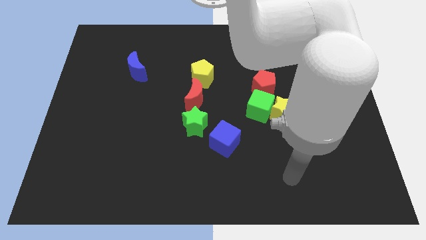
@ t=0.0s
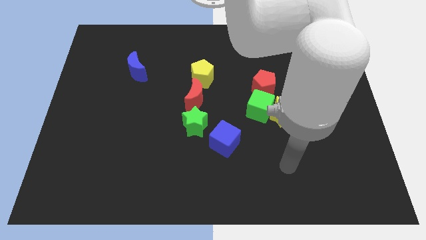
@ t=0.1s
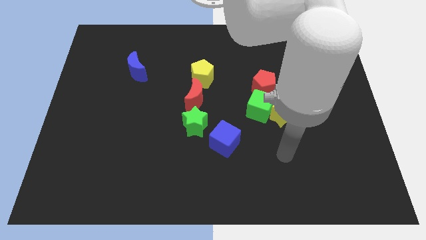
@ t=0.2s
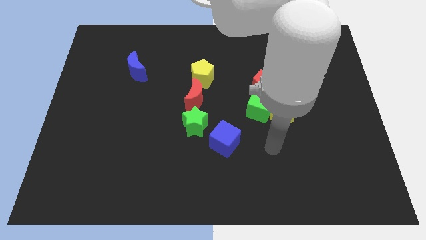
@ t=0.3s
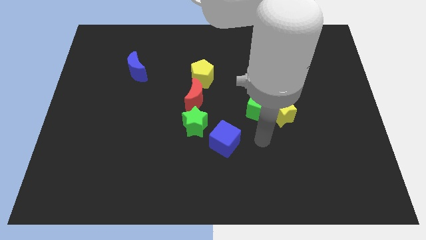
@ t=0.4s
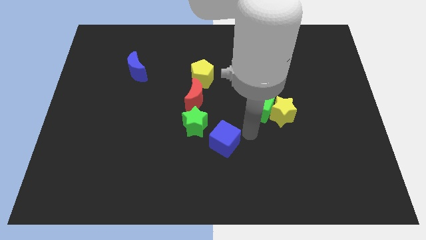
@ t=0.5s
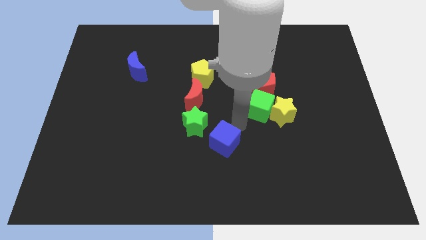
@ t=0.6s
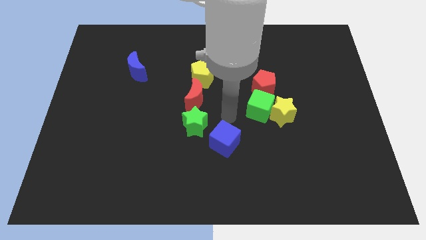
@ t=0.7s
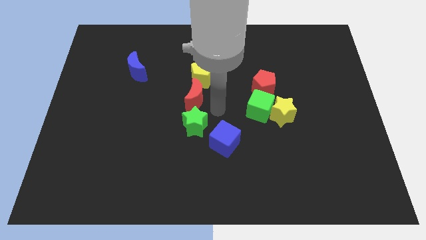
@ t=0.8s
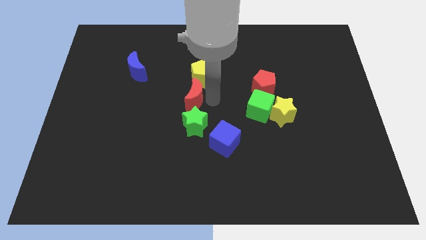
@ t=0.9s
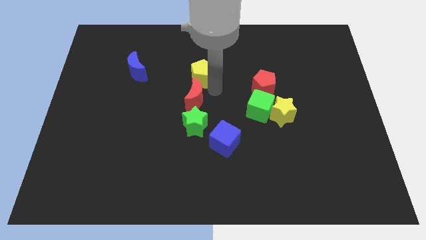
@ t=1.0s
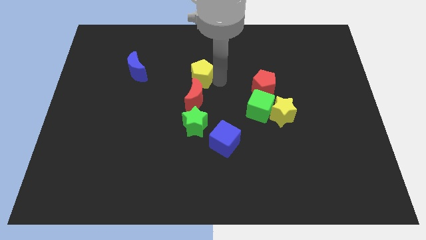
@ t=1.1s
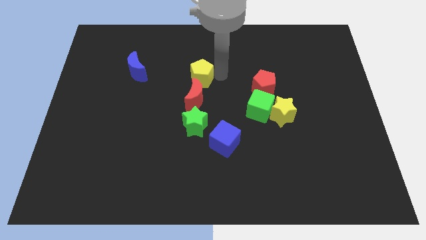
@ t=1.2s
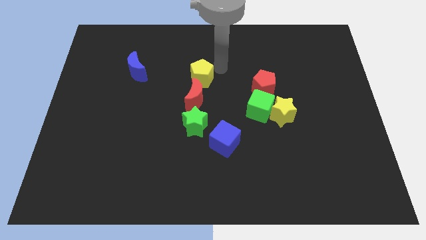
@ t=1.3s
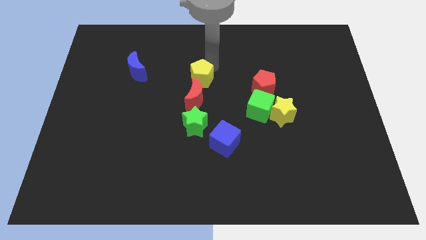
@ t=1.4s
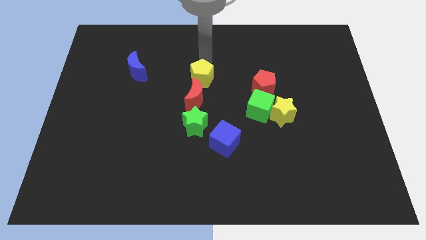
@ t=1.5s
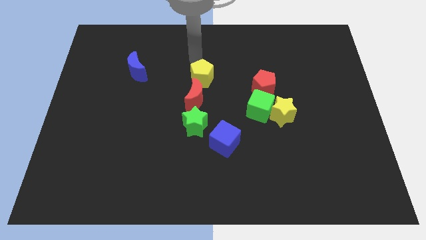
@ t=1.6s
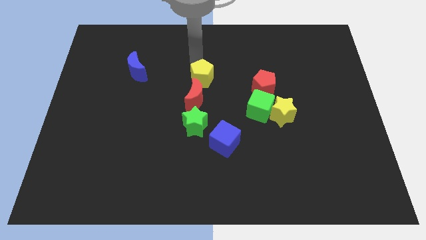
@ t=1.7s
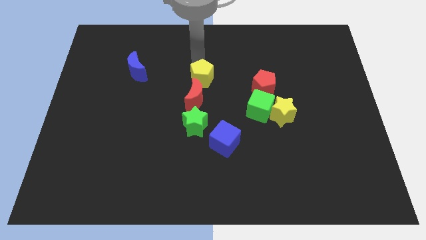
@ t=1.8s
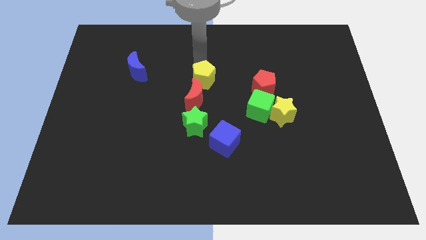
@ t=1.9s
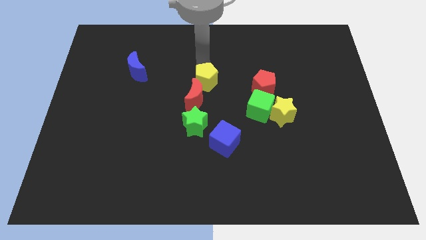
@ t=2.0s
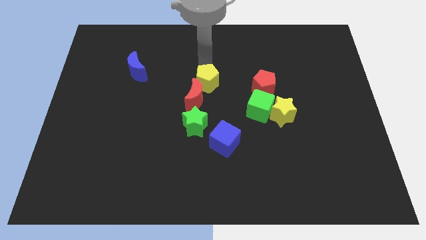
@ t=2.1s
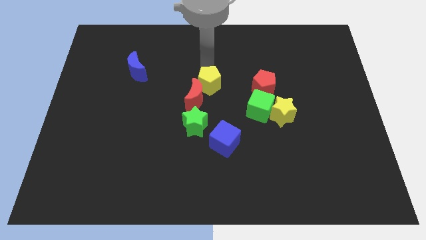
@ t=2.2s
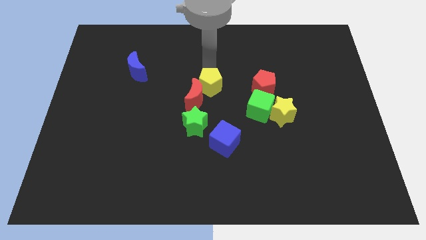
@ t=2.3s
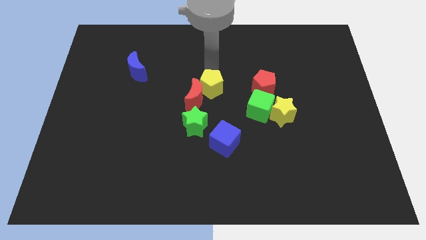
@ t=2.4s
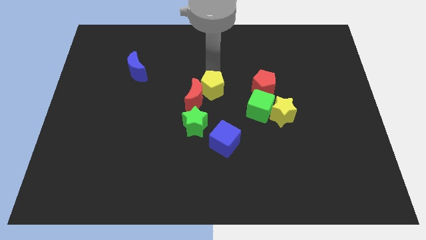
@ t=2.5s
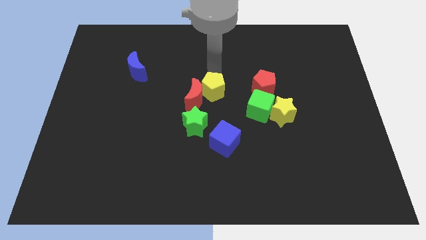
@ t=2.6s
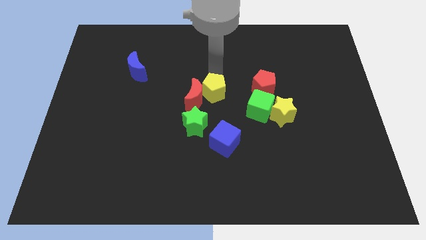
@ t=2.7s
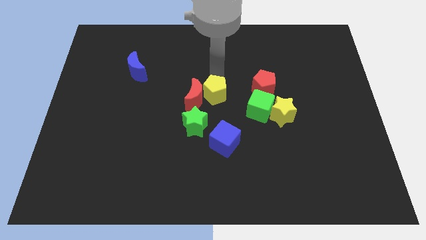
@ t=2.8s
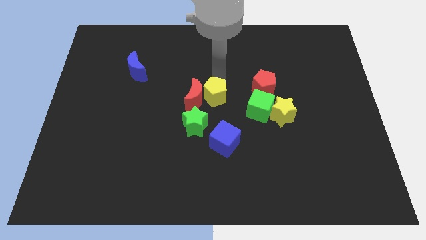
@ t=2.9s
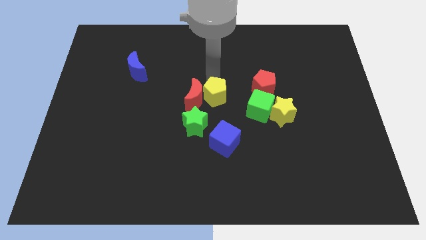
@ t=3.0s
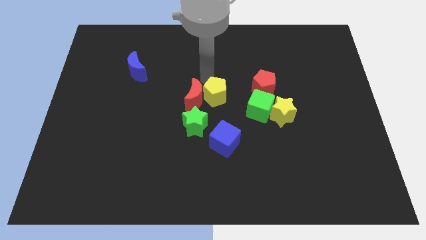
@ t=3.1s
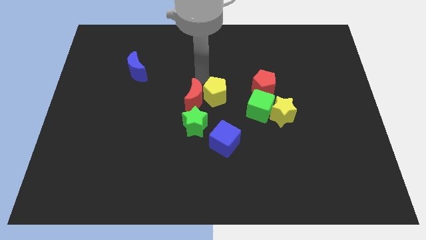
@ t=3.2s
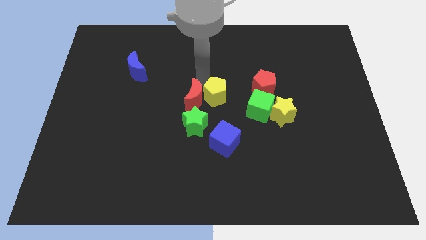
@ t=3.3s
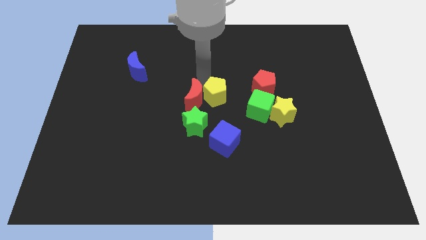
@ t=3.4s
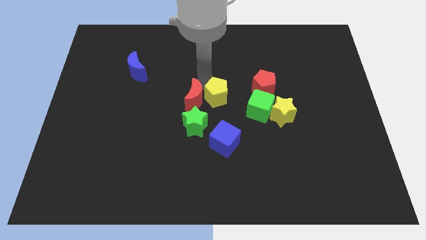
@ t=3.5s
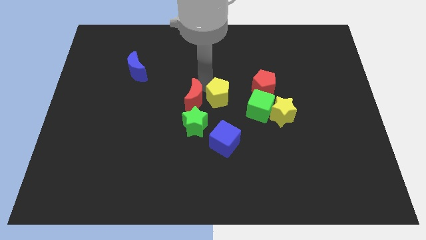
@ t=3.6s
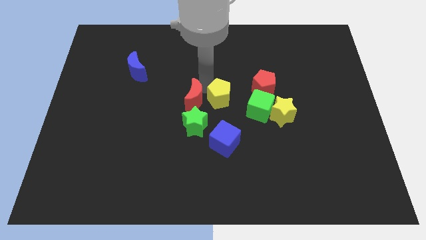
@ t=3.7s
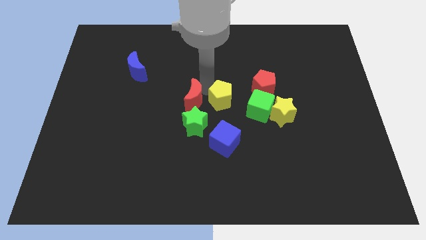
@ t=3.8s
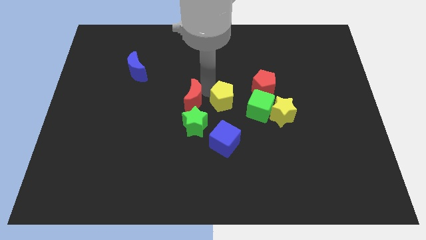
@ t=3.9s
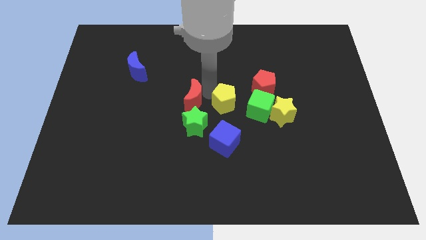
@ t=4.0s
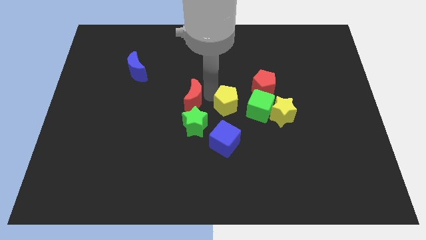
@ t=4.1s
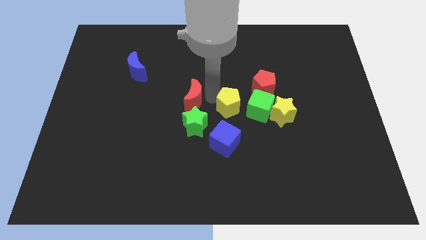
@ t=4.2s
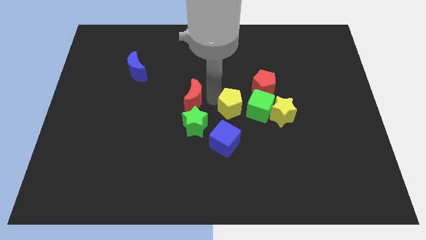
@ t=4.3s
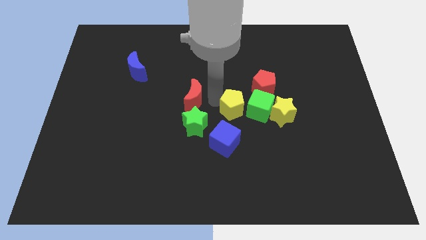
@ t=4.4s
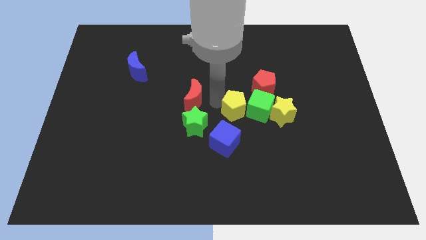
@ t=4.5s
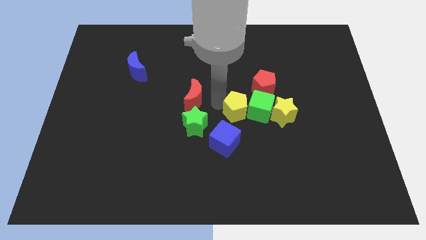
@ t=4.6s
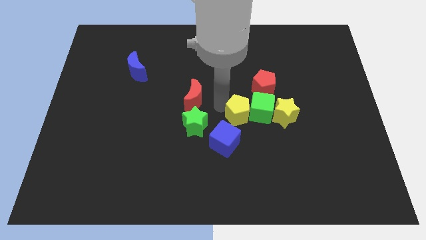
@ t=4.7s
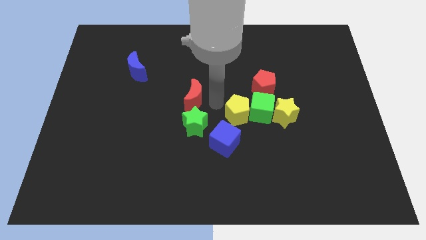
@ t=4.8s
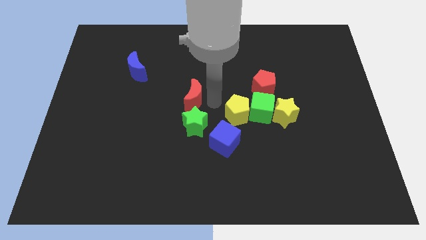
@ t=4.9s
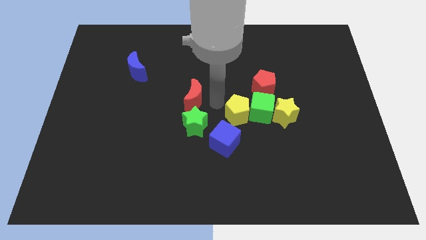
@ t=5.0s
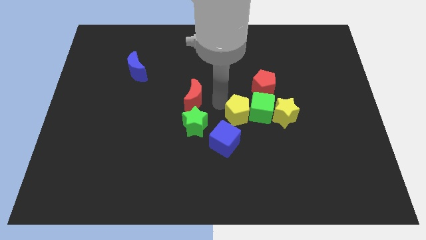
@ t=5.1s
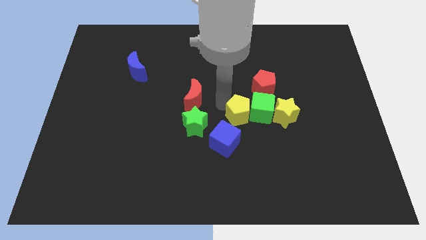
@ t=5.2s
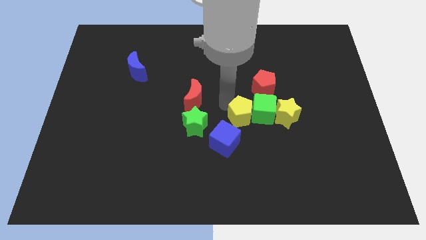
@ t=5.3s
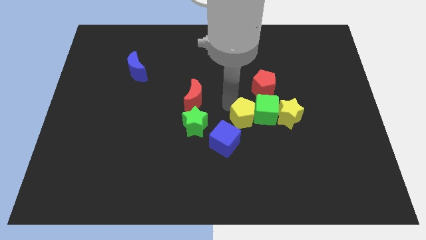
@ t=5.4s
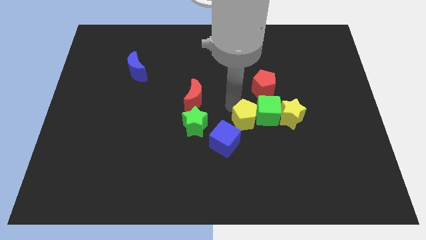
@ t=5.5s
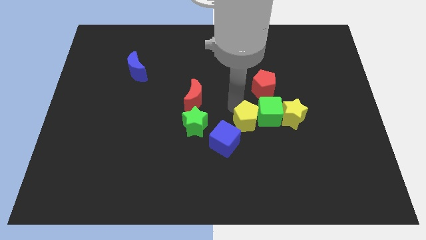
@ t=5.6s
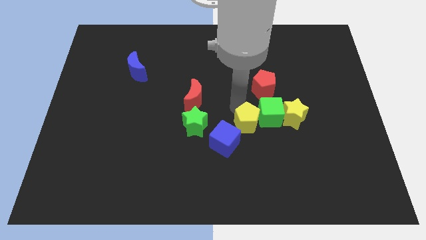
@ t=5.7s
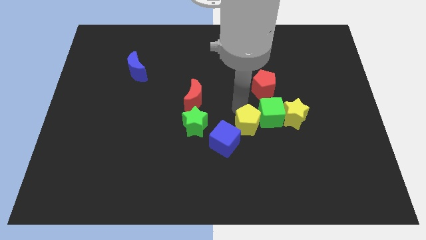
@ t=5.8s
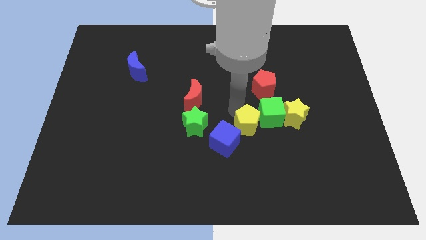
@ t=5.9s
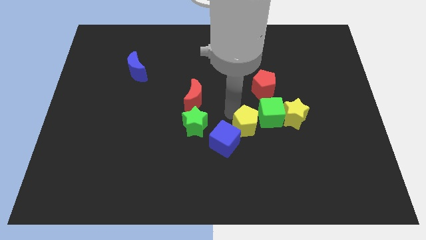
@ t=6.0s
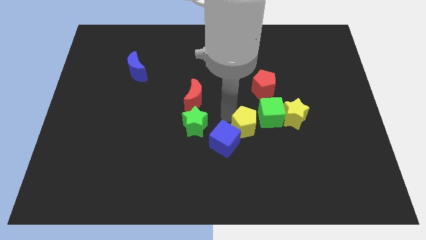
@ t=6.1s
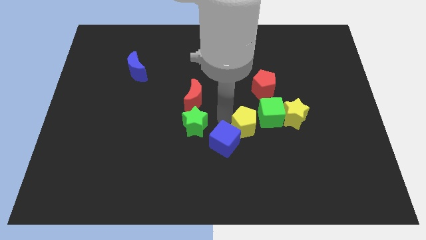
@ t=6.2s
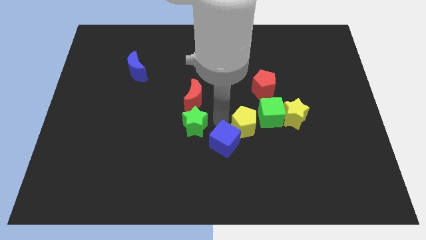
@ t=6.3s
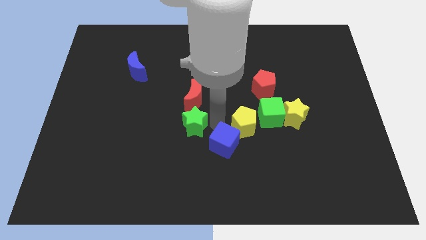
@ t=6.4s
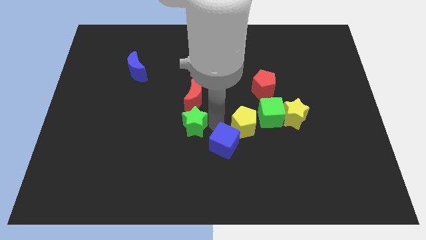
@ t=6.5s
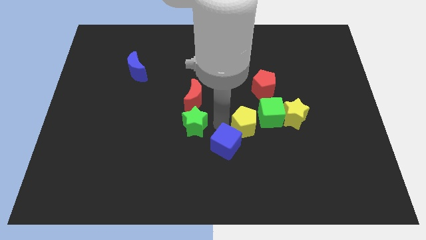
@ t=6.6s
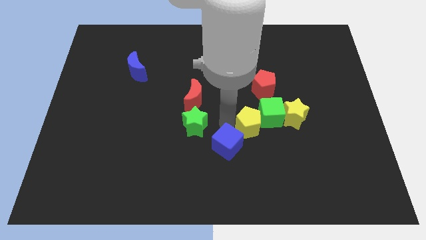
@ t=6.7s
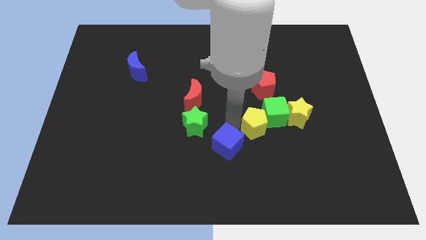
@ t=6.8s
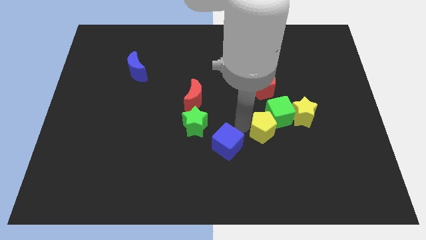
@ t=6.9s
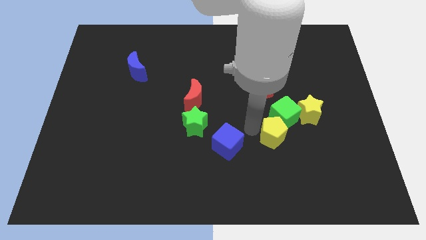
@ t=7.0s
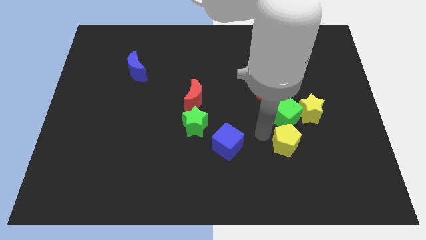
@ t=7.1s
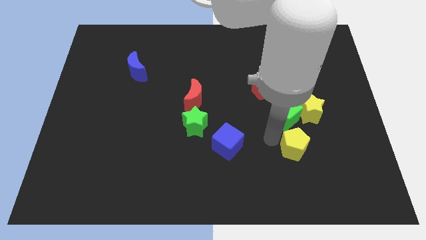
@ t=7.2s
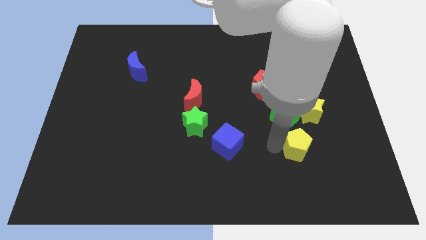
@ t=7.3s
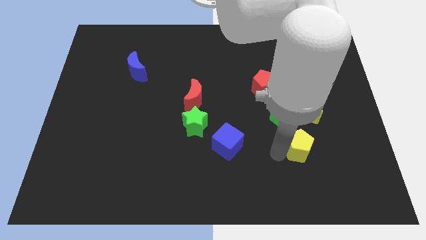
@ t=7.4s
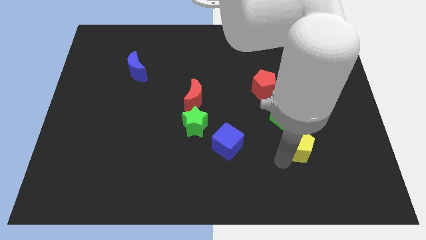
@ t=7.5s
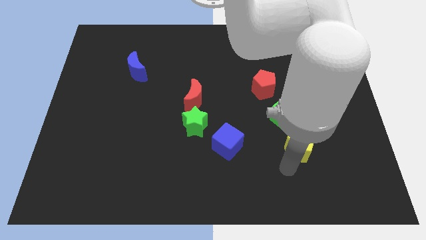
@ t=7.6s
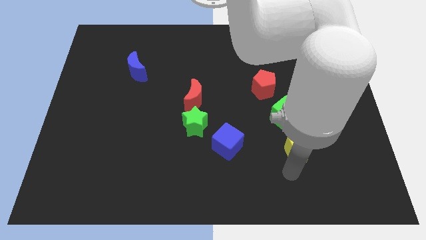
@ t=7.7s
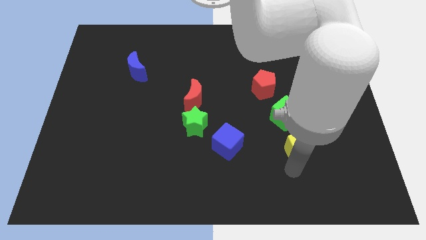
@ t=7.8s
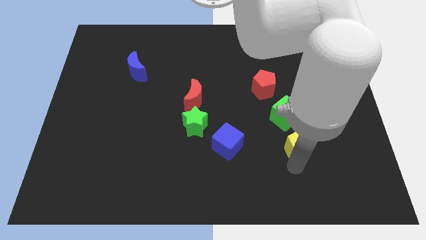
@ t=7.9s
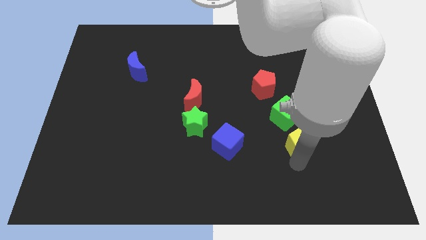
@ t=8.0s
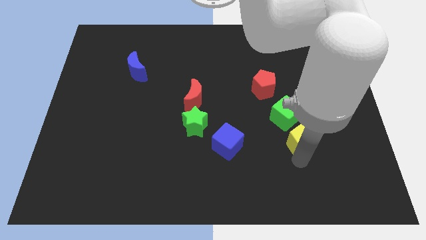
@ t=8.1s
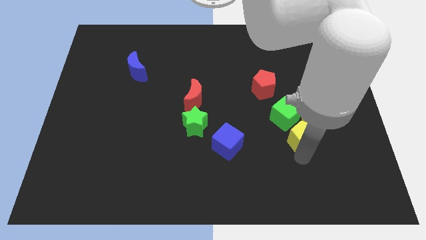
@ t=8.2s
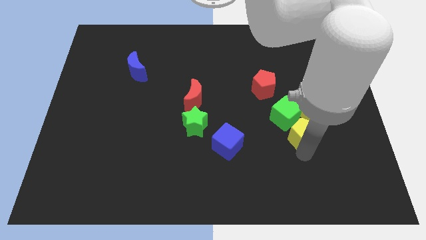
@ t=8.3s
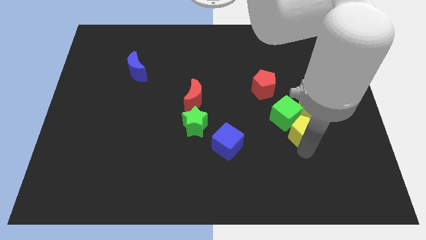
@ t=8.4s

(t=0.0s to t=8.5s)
push the yellow pentagon next to the yellow star
